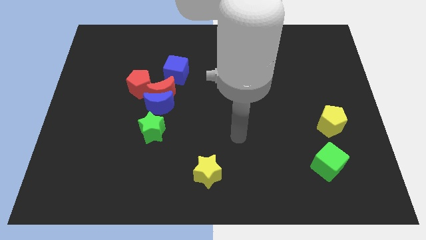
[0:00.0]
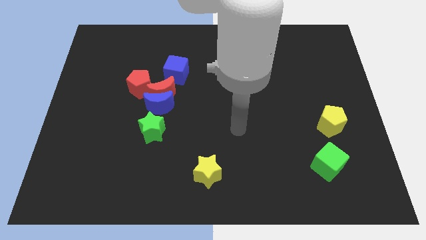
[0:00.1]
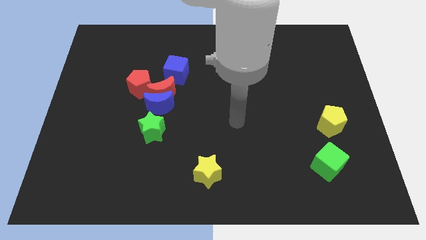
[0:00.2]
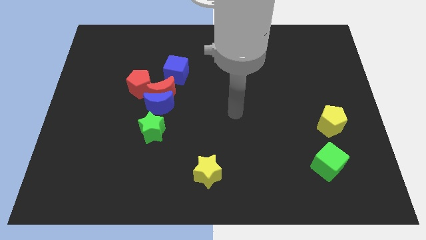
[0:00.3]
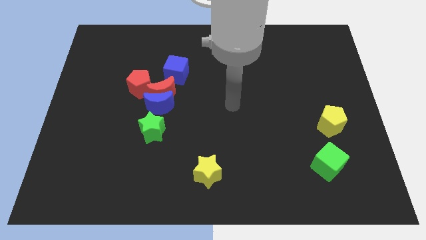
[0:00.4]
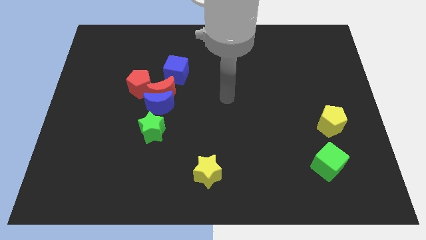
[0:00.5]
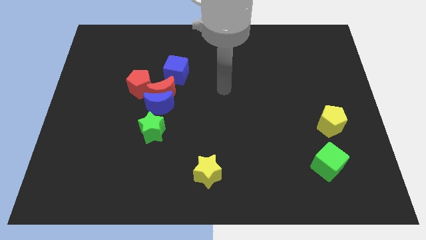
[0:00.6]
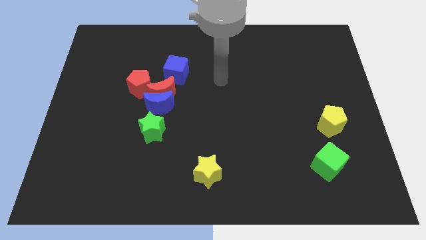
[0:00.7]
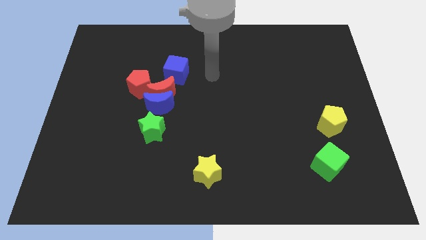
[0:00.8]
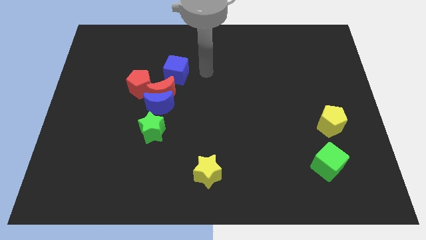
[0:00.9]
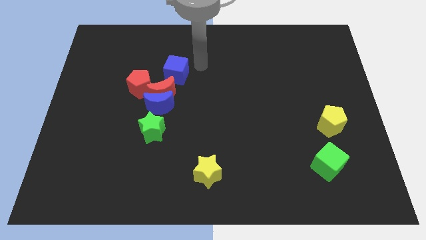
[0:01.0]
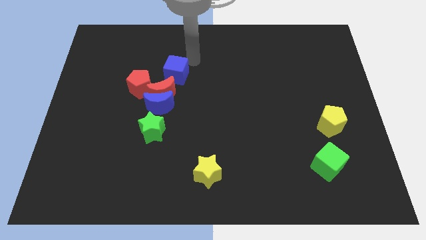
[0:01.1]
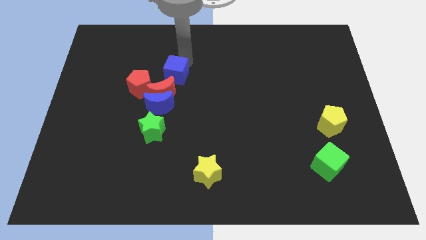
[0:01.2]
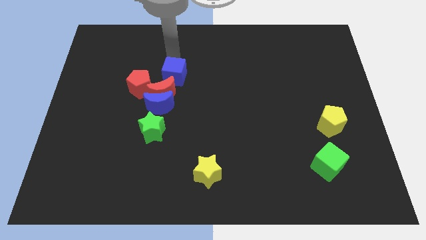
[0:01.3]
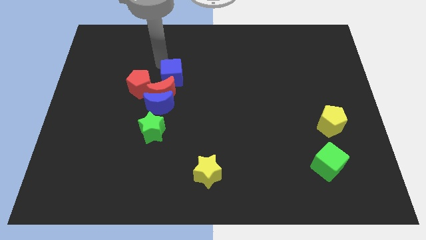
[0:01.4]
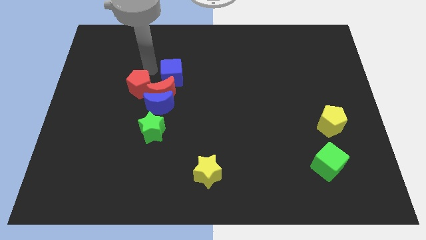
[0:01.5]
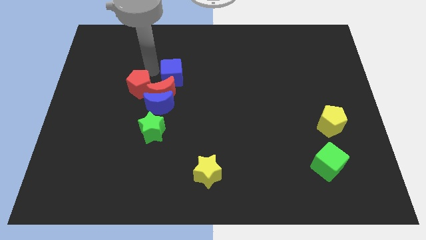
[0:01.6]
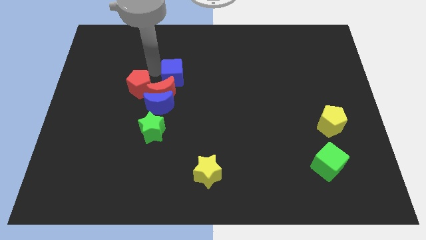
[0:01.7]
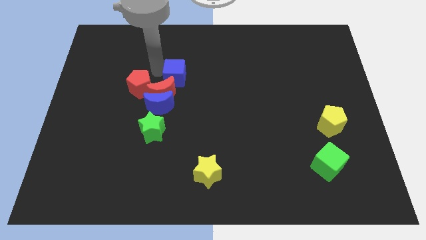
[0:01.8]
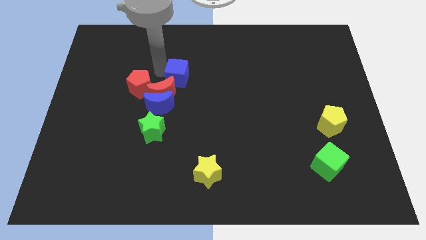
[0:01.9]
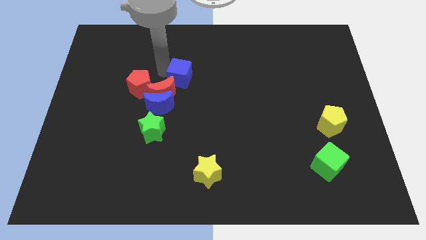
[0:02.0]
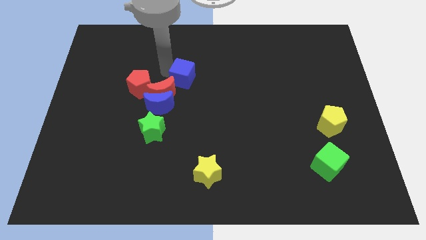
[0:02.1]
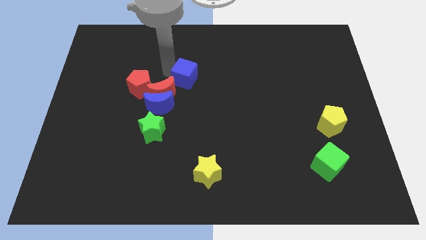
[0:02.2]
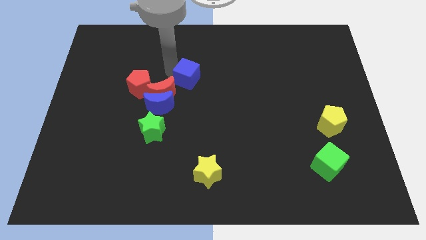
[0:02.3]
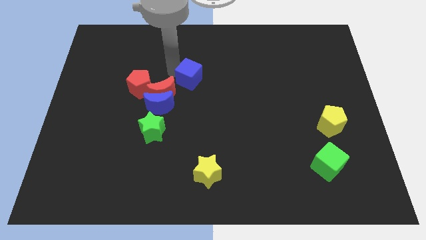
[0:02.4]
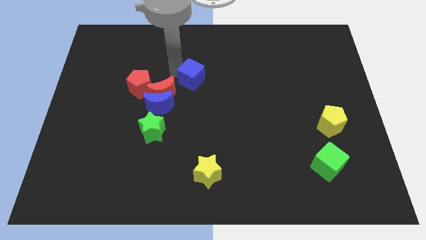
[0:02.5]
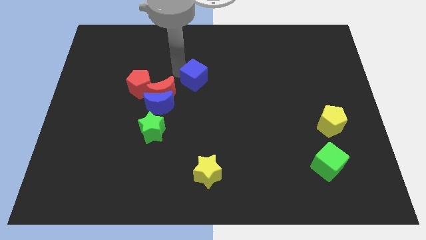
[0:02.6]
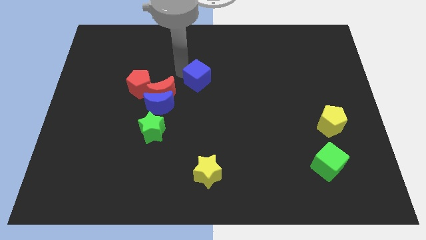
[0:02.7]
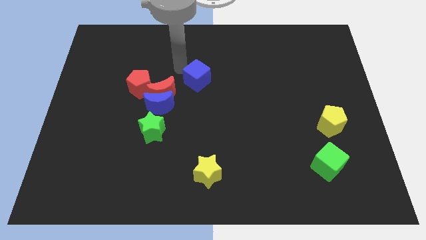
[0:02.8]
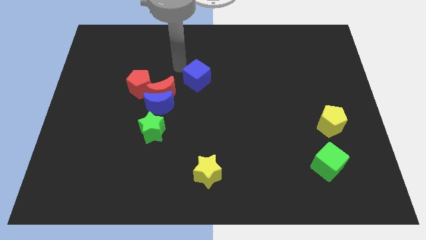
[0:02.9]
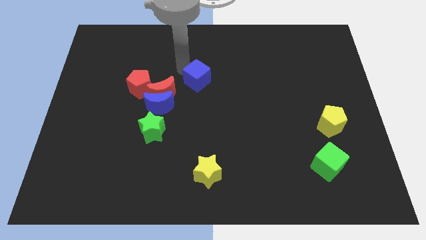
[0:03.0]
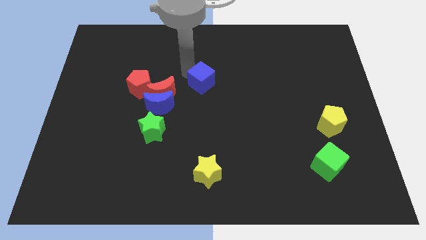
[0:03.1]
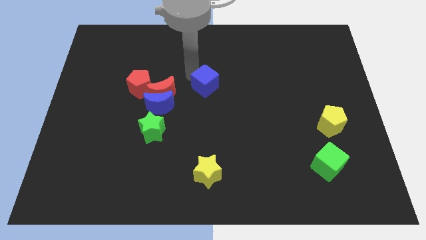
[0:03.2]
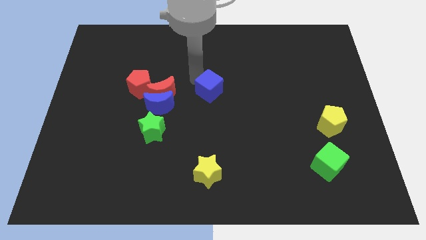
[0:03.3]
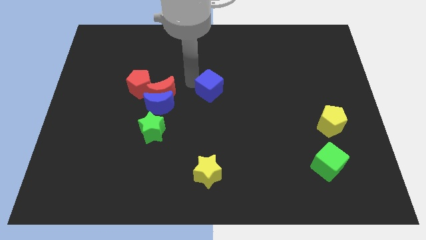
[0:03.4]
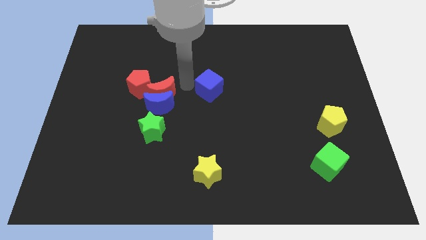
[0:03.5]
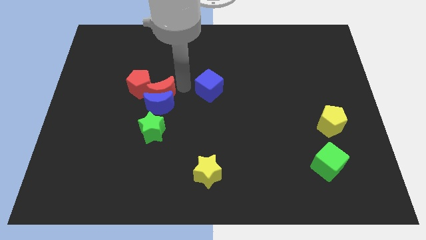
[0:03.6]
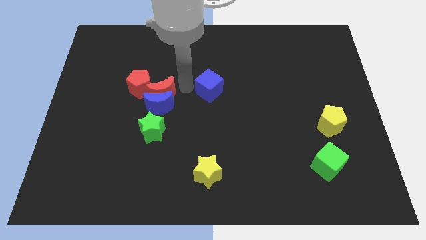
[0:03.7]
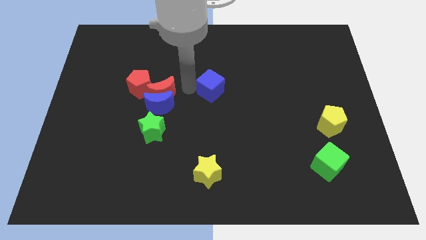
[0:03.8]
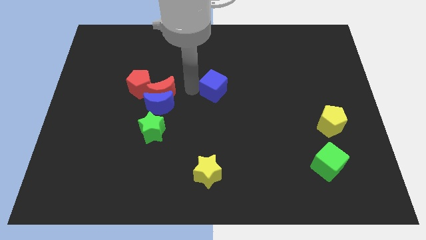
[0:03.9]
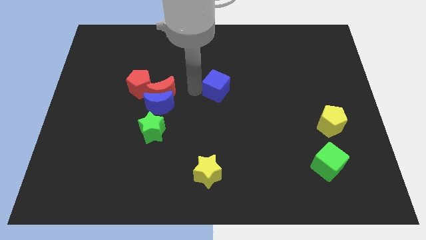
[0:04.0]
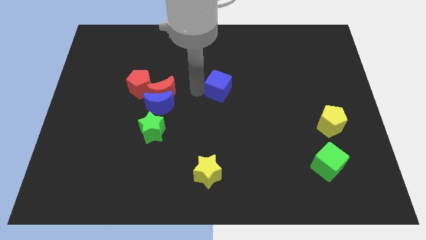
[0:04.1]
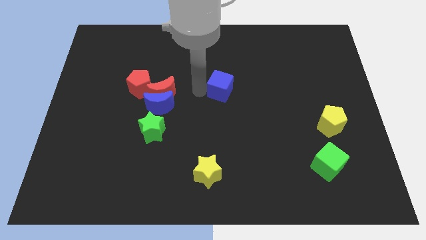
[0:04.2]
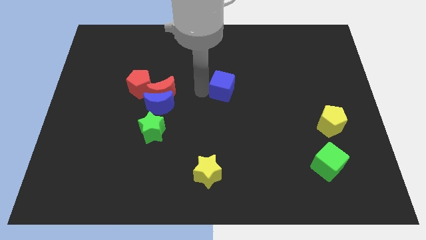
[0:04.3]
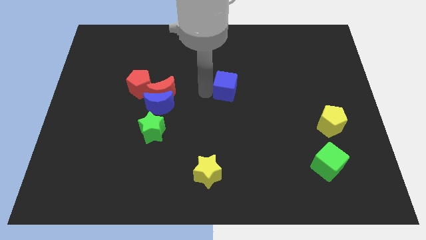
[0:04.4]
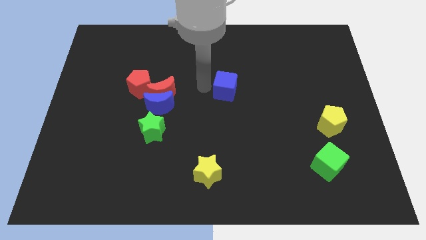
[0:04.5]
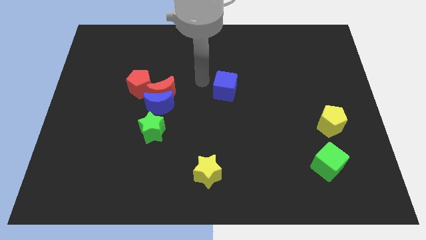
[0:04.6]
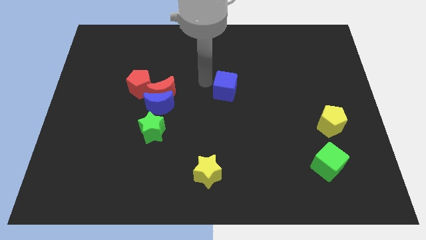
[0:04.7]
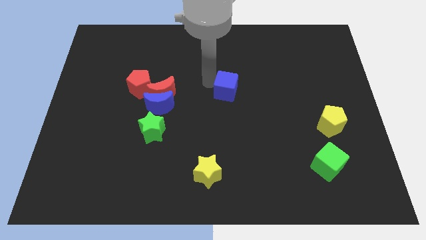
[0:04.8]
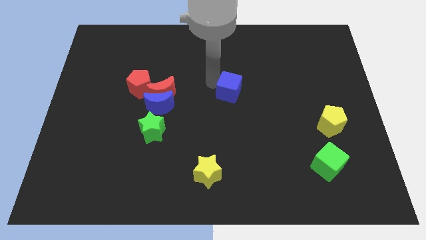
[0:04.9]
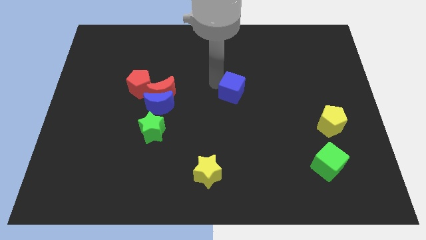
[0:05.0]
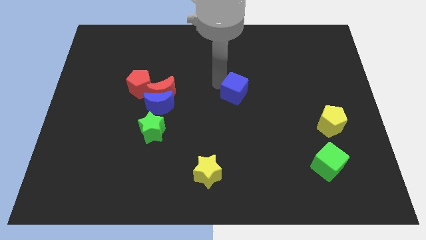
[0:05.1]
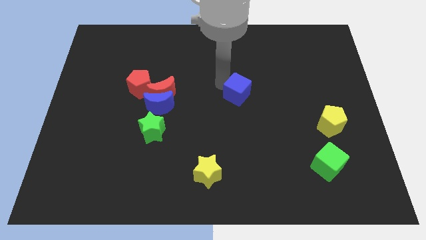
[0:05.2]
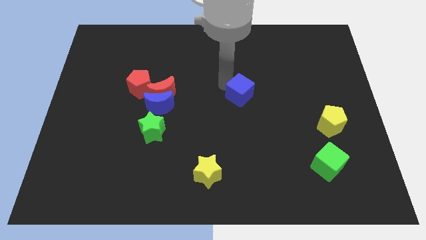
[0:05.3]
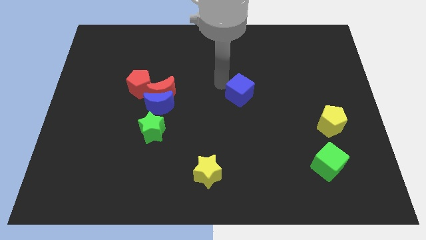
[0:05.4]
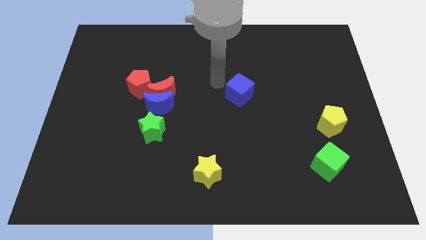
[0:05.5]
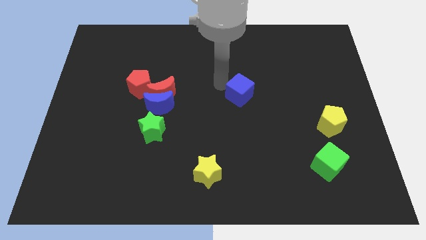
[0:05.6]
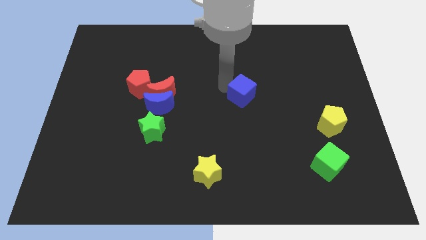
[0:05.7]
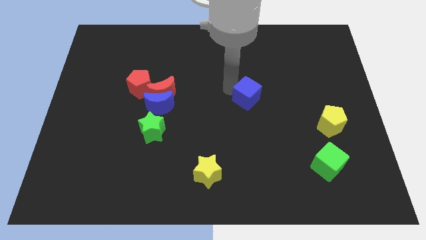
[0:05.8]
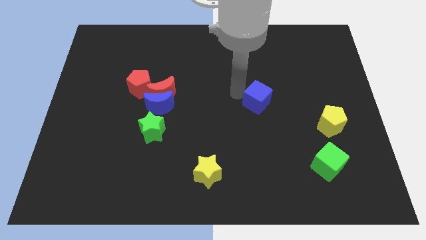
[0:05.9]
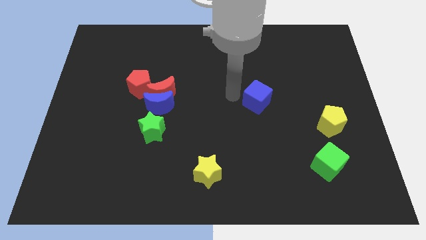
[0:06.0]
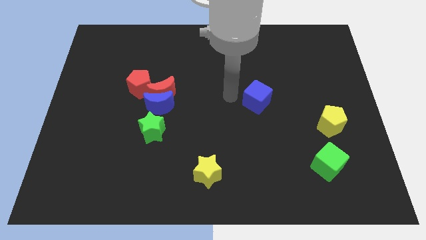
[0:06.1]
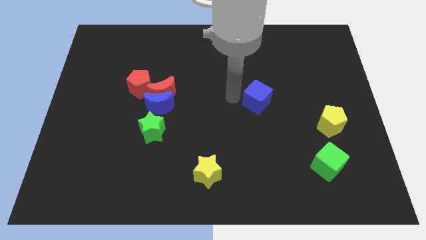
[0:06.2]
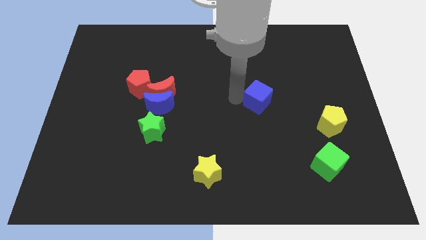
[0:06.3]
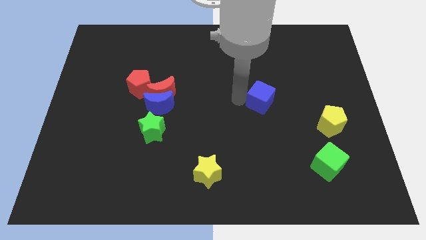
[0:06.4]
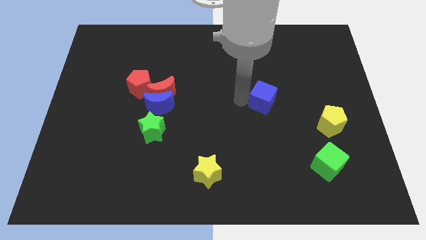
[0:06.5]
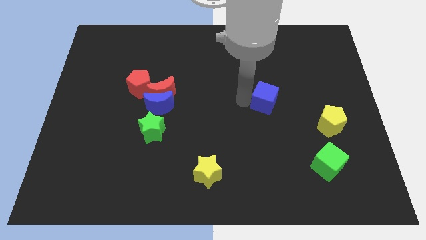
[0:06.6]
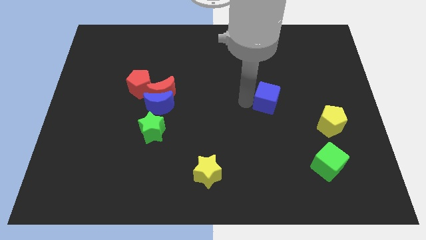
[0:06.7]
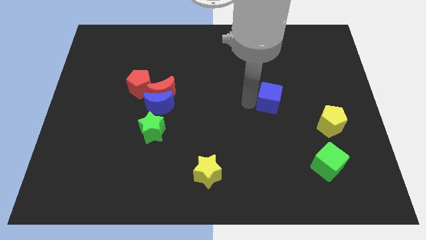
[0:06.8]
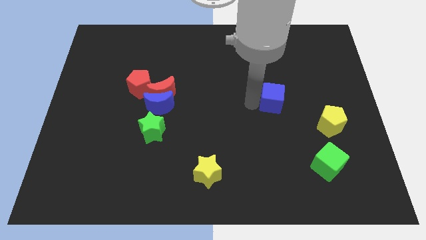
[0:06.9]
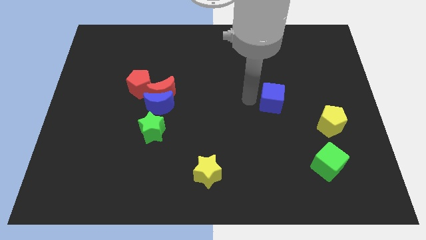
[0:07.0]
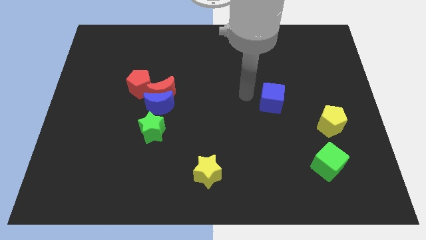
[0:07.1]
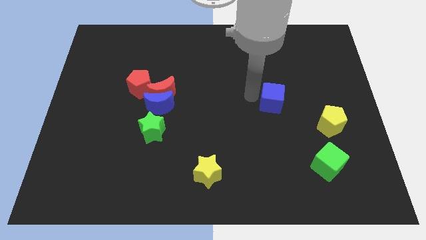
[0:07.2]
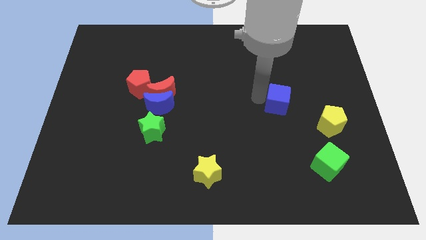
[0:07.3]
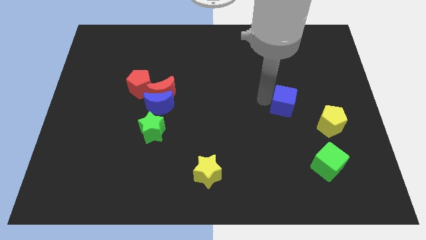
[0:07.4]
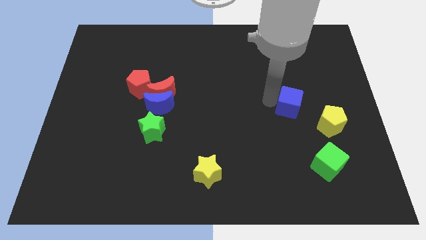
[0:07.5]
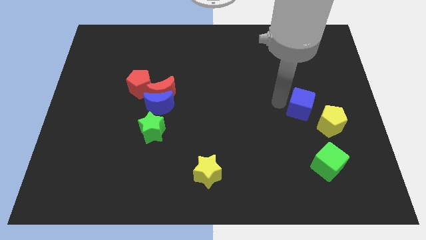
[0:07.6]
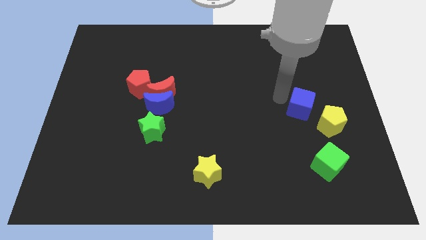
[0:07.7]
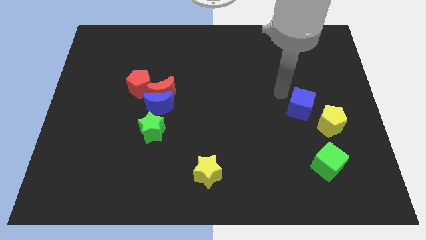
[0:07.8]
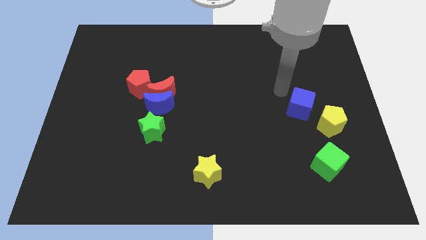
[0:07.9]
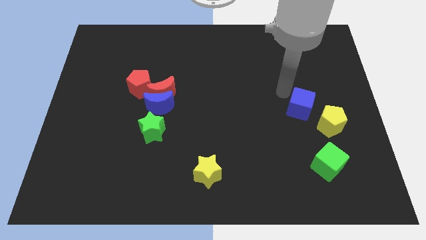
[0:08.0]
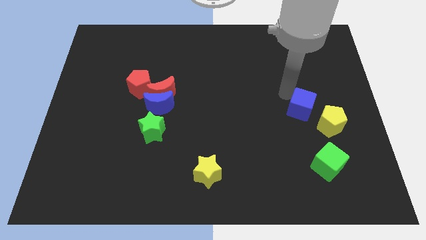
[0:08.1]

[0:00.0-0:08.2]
move the blue cube above the green cube
